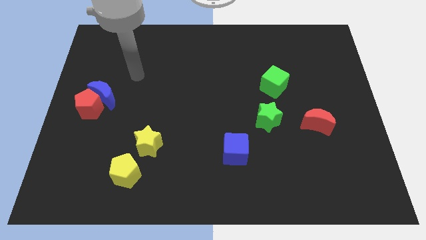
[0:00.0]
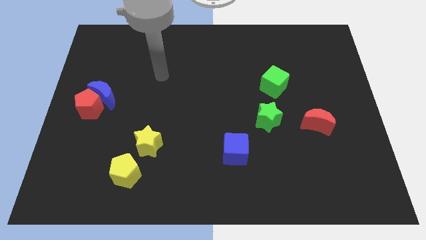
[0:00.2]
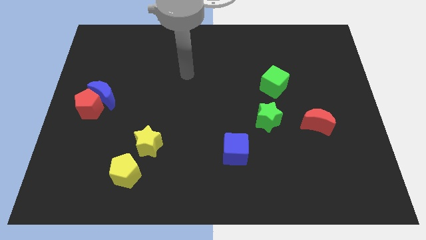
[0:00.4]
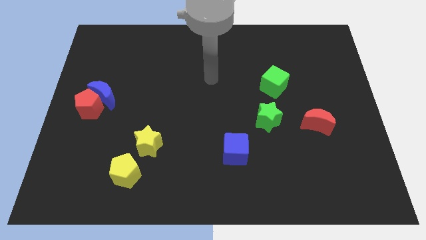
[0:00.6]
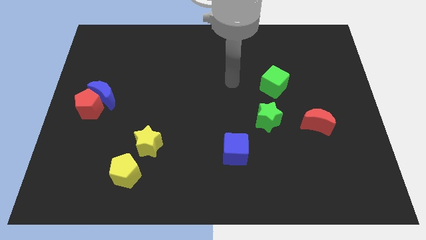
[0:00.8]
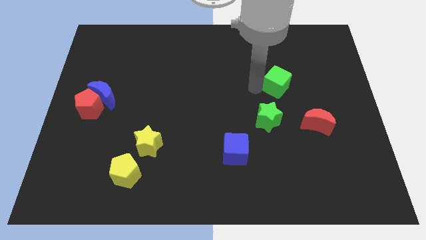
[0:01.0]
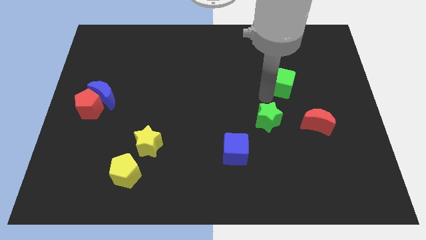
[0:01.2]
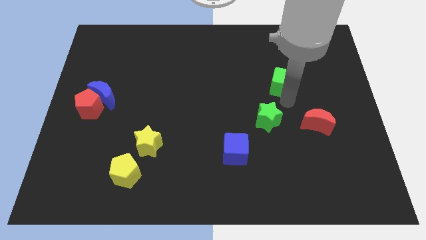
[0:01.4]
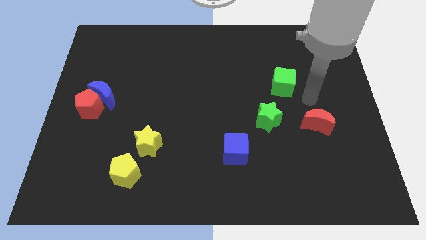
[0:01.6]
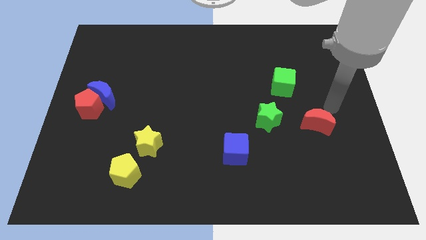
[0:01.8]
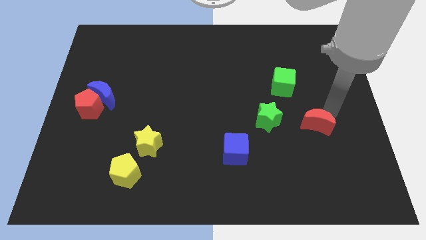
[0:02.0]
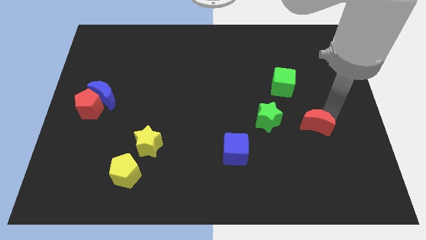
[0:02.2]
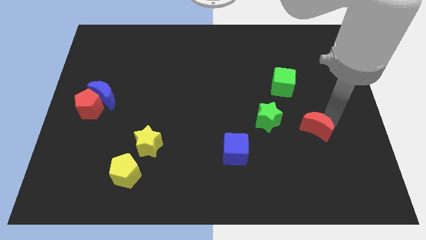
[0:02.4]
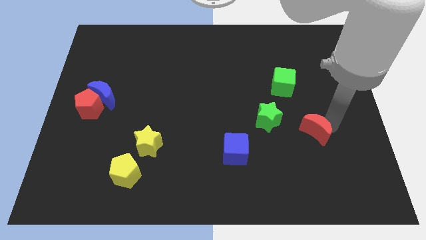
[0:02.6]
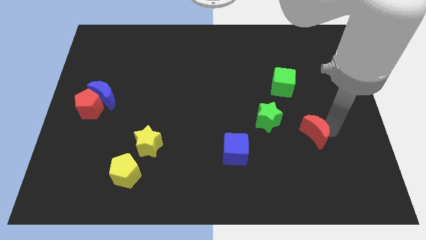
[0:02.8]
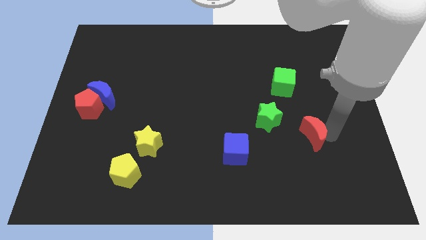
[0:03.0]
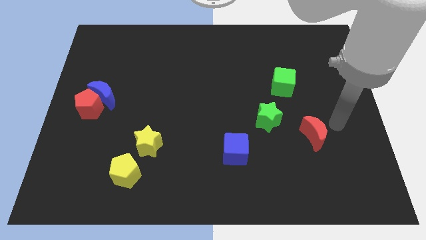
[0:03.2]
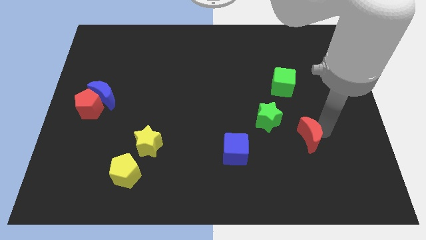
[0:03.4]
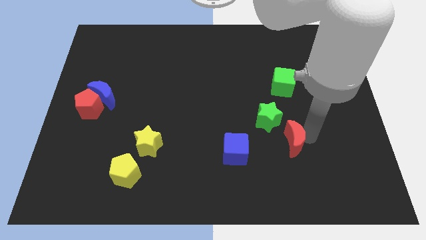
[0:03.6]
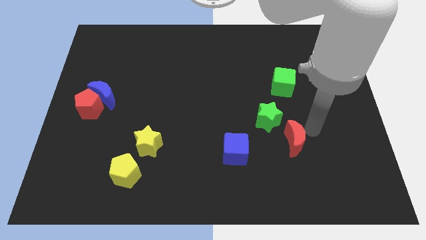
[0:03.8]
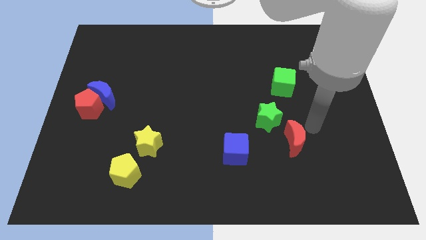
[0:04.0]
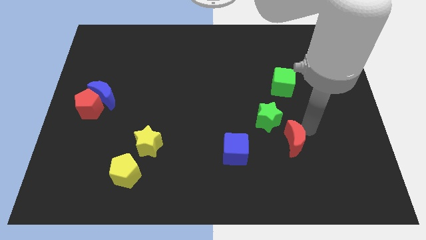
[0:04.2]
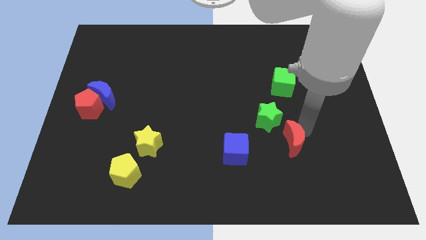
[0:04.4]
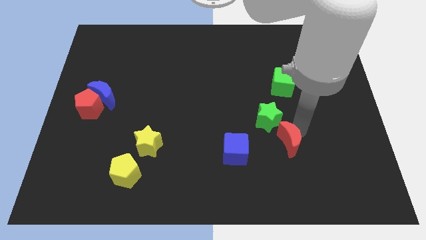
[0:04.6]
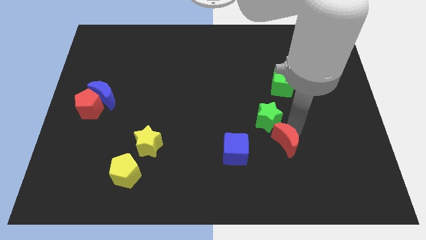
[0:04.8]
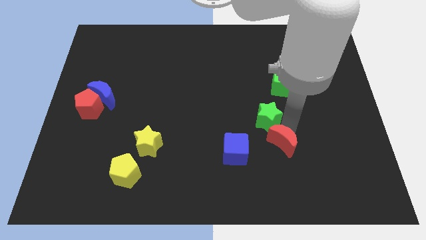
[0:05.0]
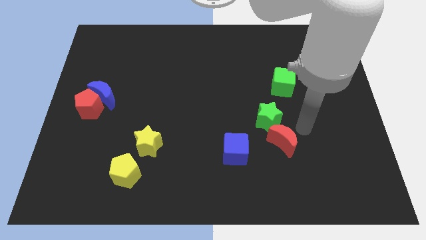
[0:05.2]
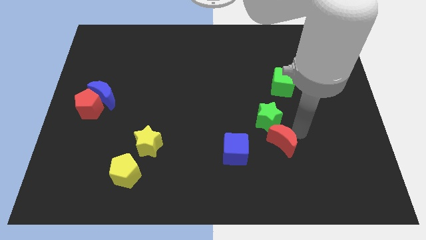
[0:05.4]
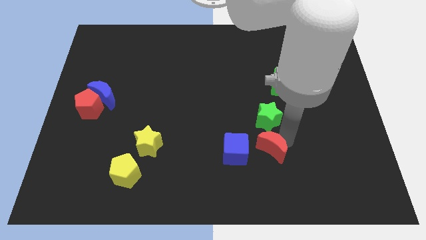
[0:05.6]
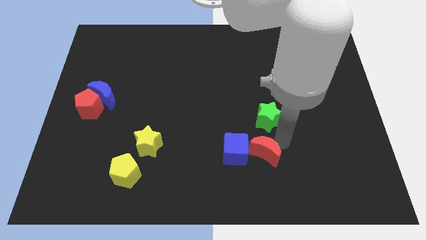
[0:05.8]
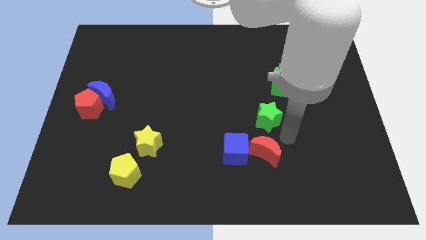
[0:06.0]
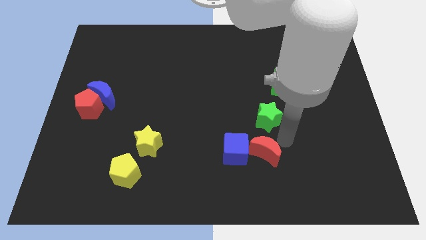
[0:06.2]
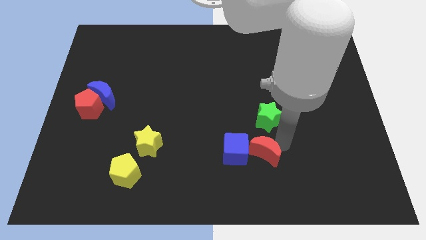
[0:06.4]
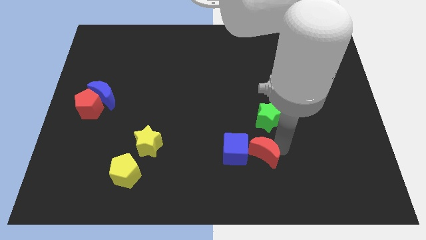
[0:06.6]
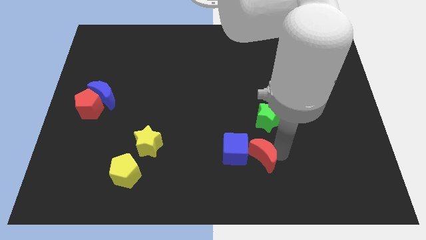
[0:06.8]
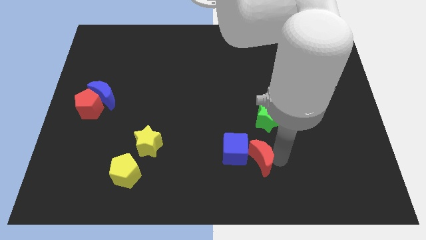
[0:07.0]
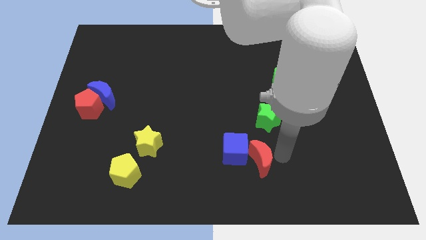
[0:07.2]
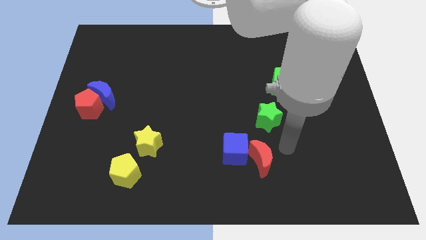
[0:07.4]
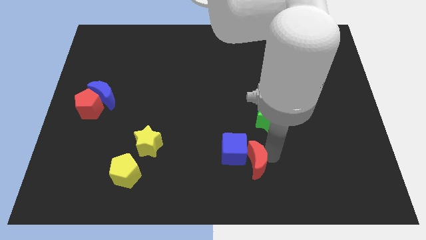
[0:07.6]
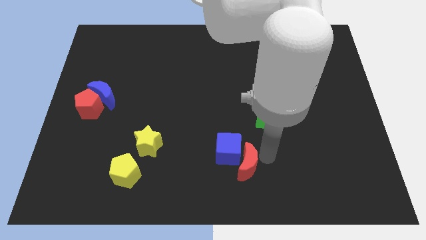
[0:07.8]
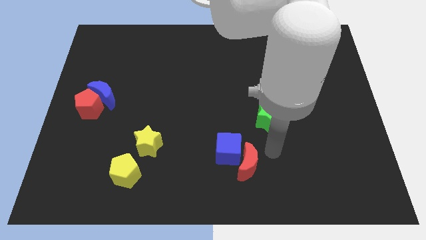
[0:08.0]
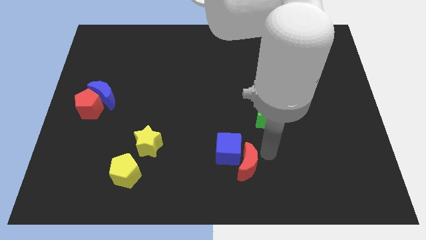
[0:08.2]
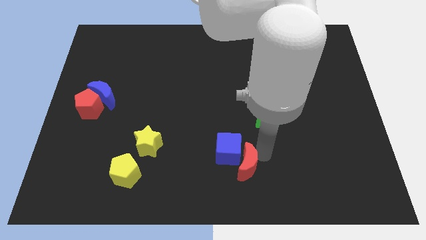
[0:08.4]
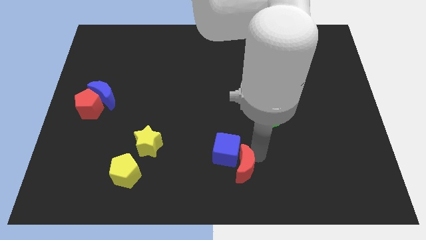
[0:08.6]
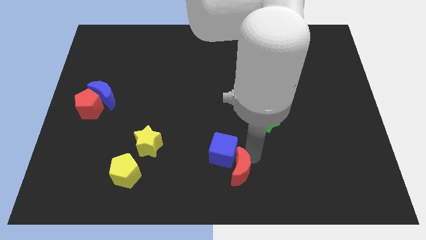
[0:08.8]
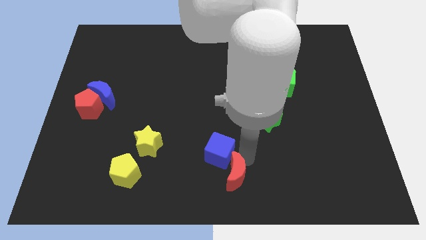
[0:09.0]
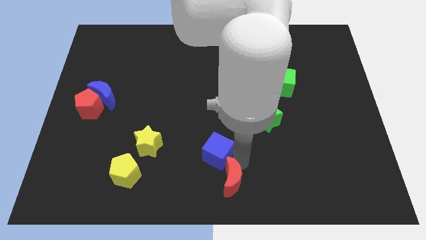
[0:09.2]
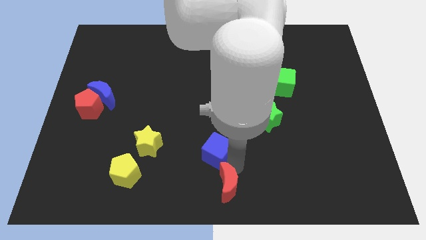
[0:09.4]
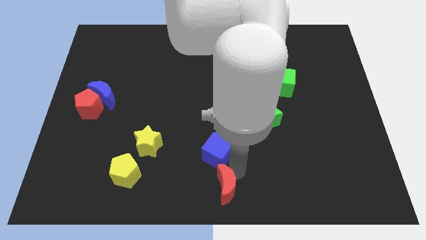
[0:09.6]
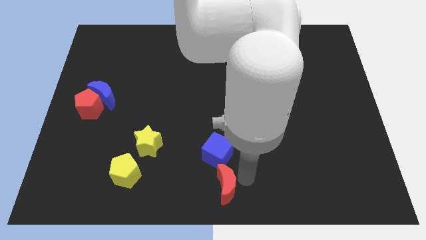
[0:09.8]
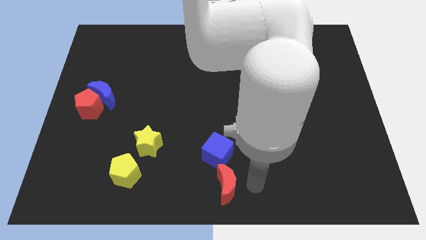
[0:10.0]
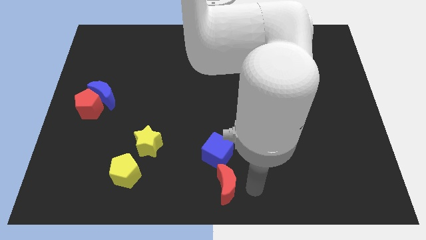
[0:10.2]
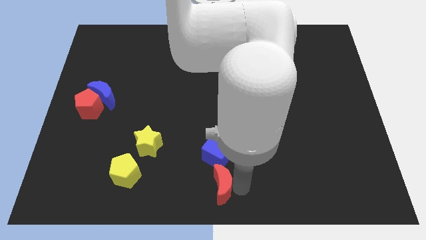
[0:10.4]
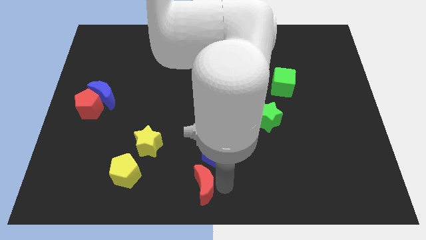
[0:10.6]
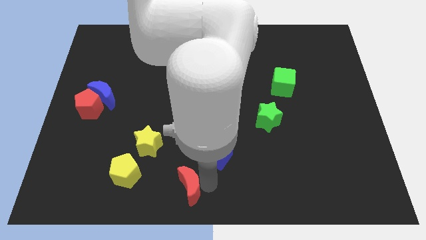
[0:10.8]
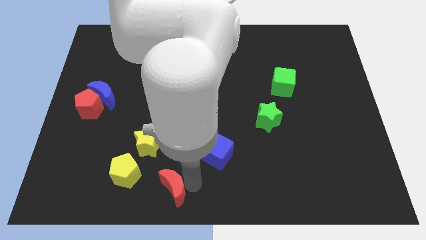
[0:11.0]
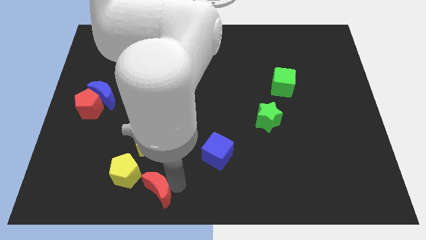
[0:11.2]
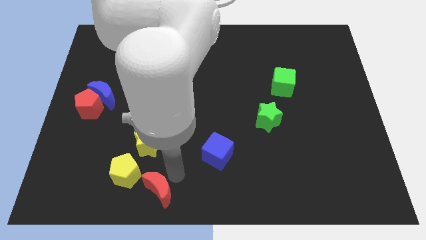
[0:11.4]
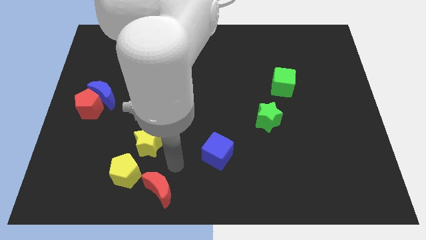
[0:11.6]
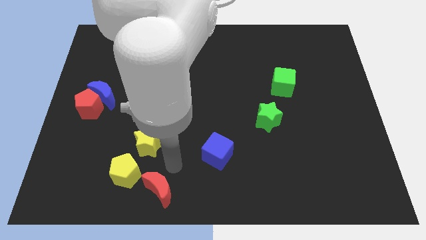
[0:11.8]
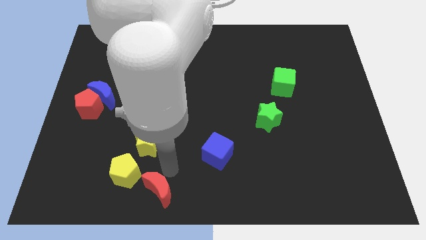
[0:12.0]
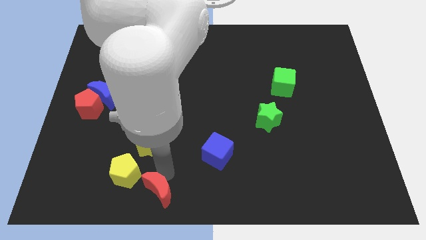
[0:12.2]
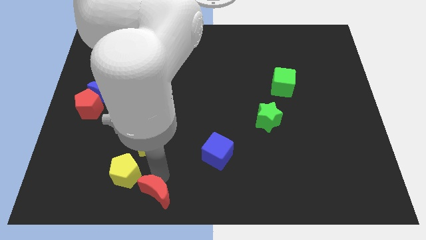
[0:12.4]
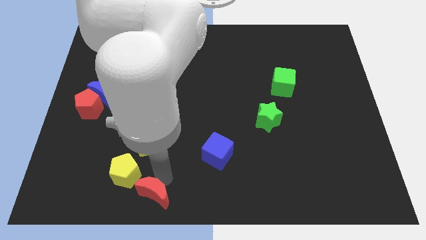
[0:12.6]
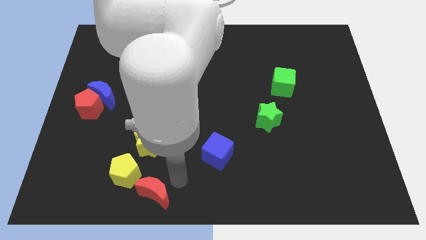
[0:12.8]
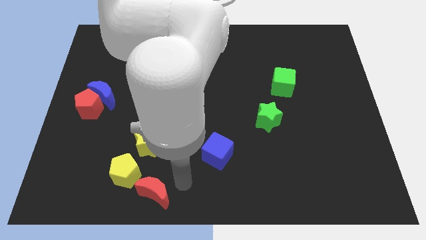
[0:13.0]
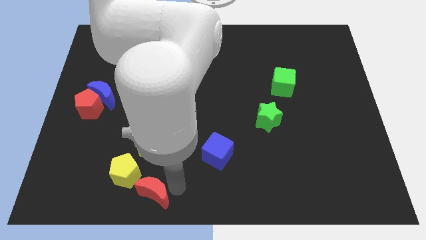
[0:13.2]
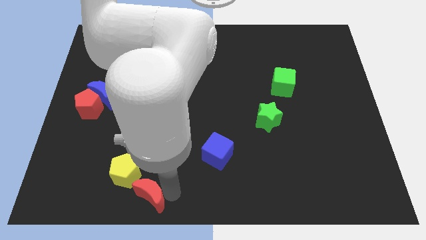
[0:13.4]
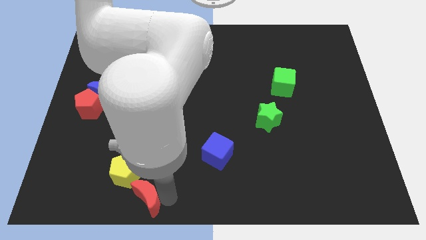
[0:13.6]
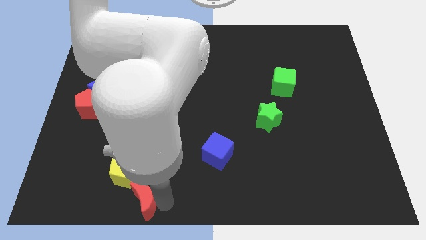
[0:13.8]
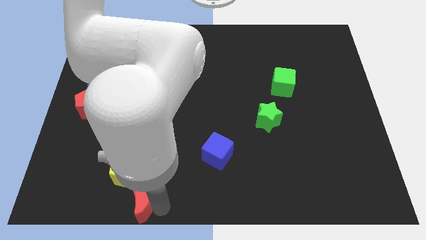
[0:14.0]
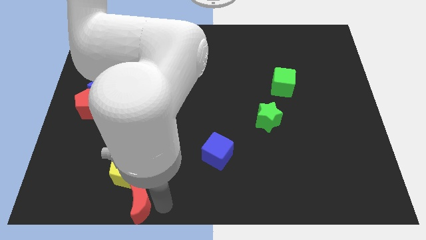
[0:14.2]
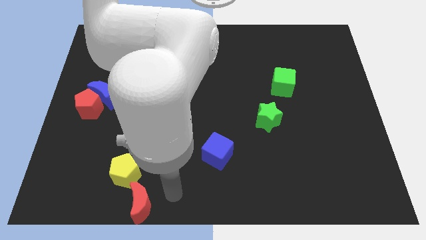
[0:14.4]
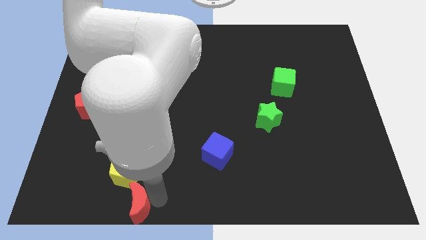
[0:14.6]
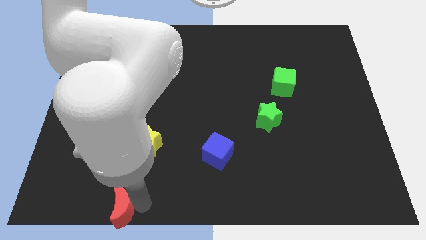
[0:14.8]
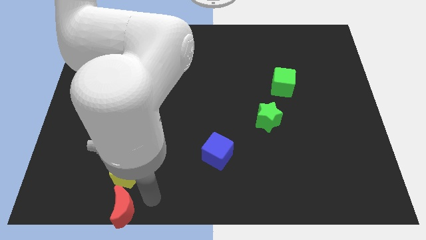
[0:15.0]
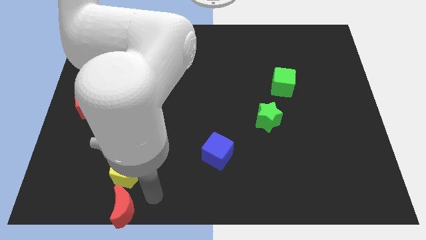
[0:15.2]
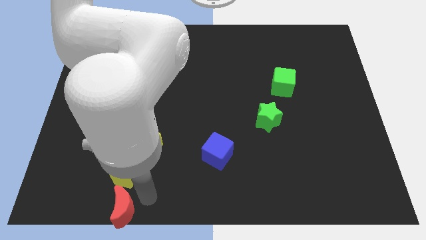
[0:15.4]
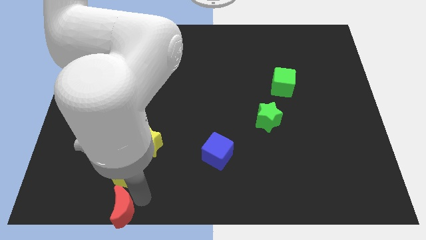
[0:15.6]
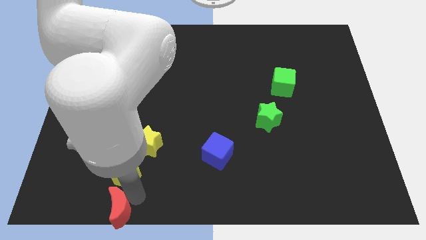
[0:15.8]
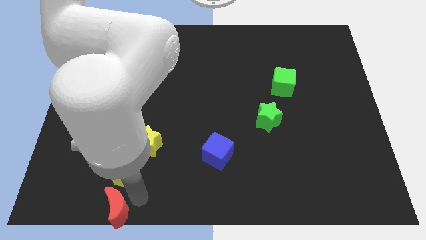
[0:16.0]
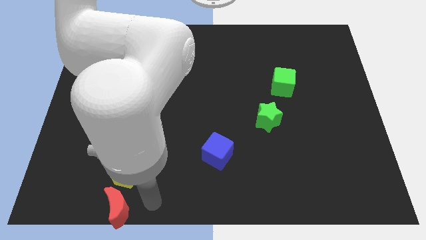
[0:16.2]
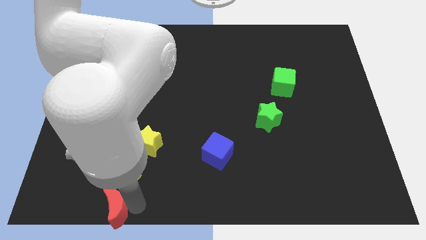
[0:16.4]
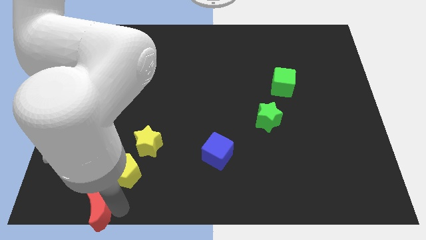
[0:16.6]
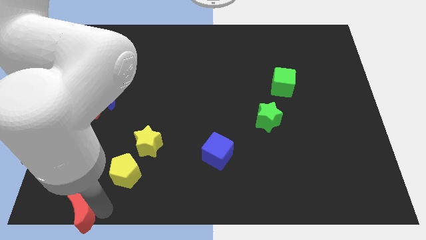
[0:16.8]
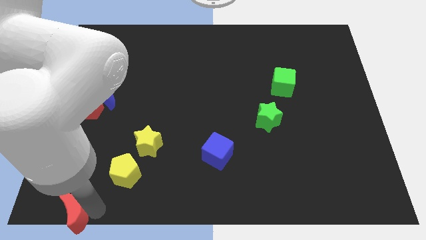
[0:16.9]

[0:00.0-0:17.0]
move the red moon to the bottom left of the board
